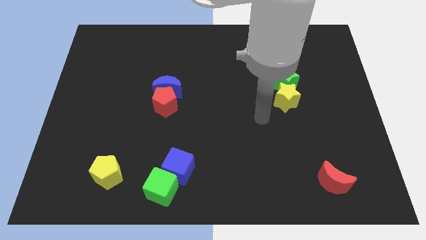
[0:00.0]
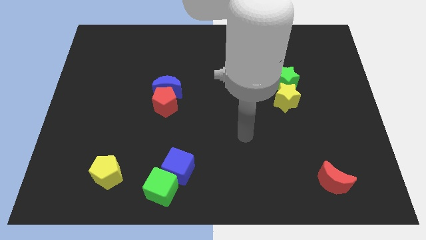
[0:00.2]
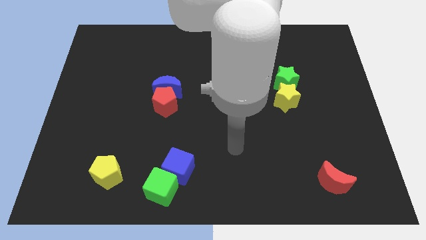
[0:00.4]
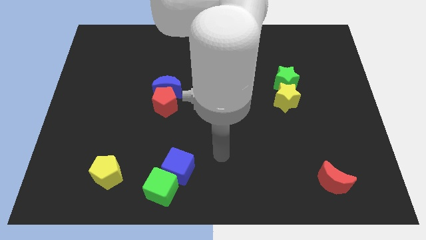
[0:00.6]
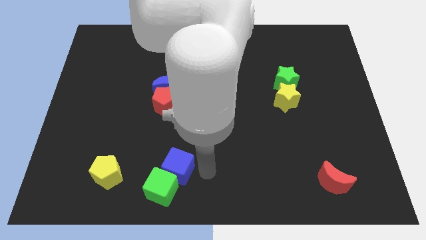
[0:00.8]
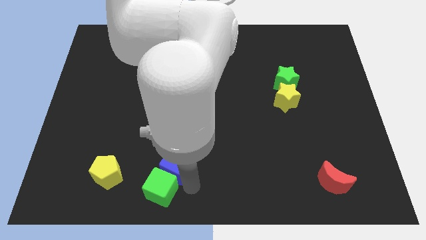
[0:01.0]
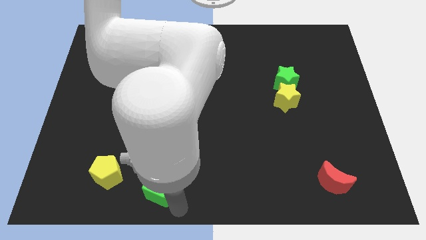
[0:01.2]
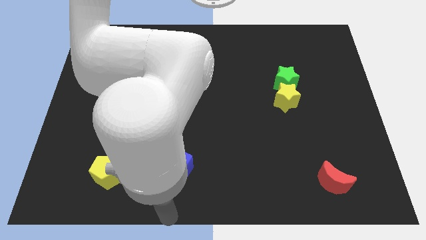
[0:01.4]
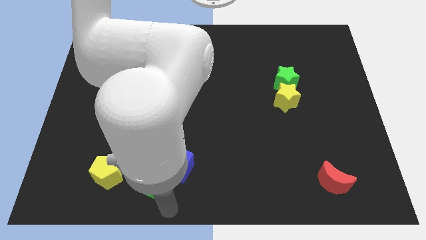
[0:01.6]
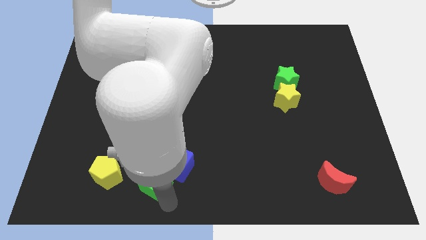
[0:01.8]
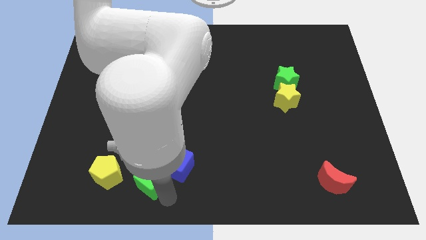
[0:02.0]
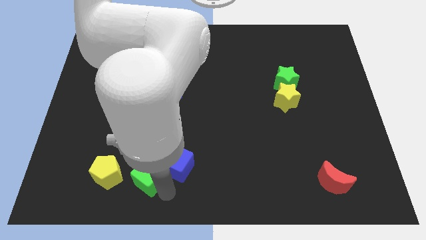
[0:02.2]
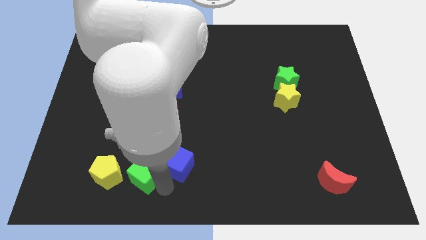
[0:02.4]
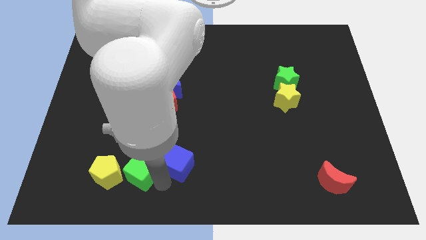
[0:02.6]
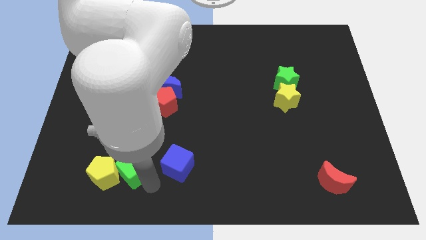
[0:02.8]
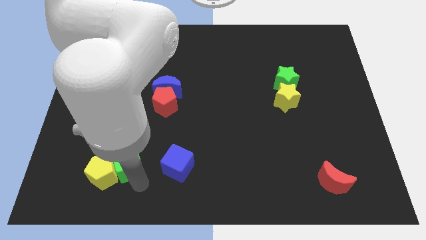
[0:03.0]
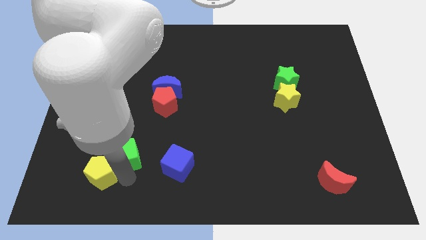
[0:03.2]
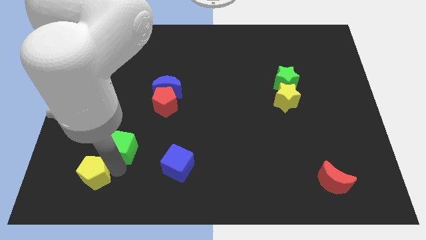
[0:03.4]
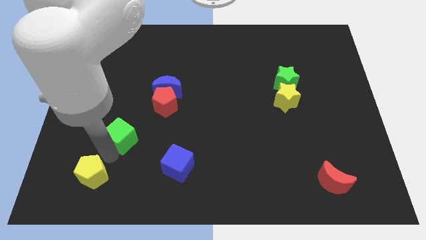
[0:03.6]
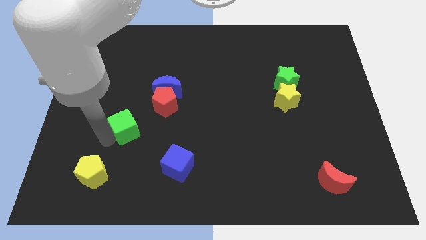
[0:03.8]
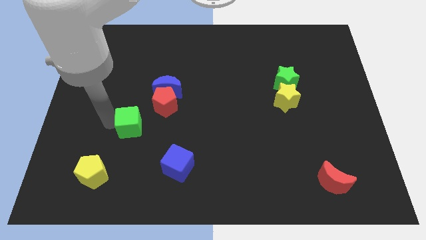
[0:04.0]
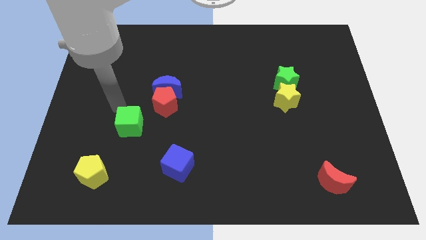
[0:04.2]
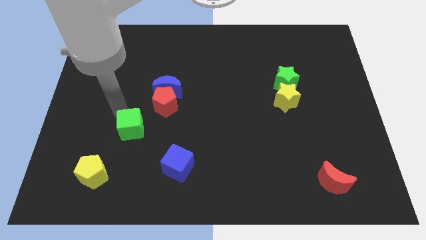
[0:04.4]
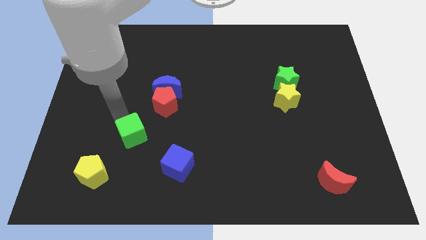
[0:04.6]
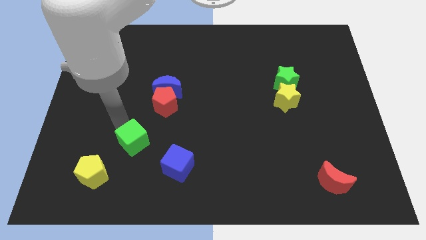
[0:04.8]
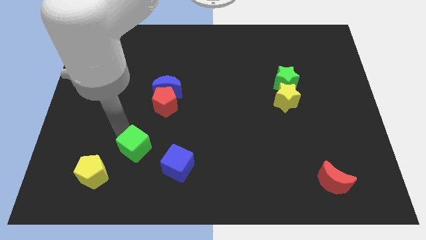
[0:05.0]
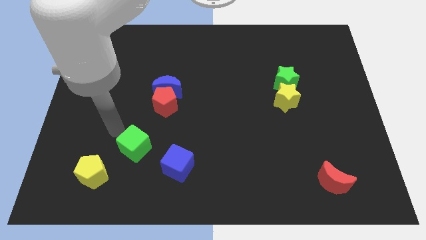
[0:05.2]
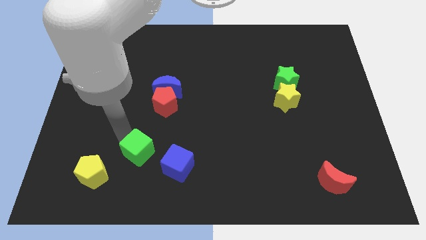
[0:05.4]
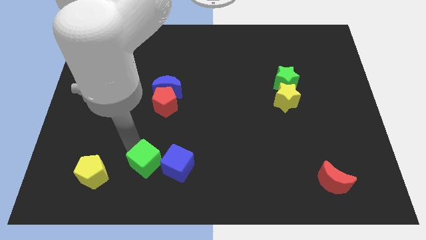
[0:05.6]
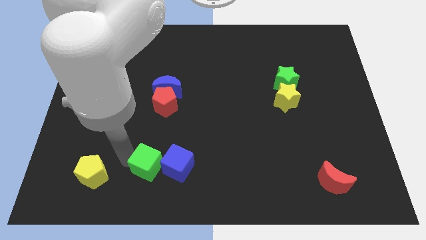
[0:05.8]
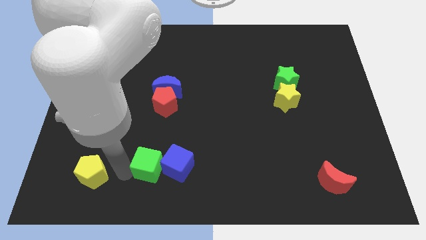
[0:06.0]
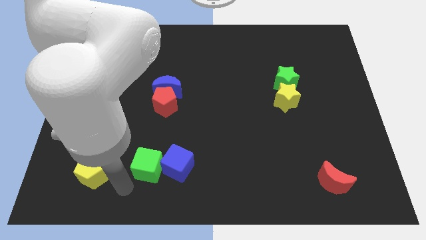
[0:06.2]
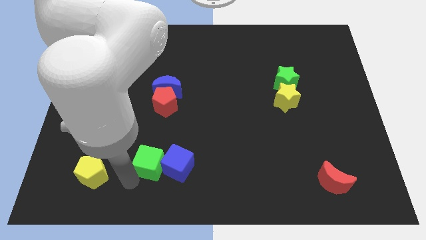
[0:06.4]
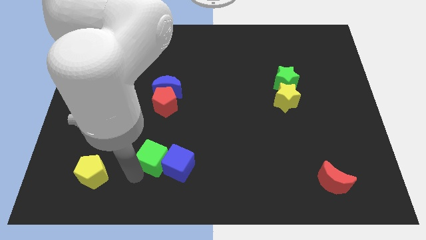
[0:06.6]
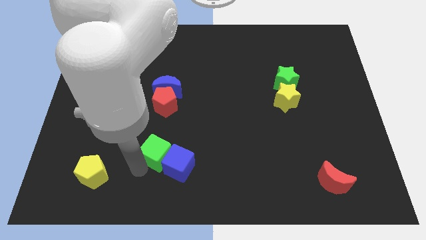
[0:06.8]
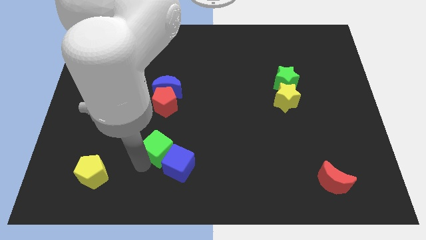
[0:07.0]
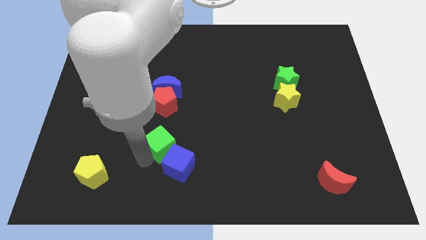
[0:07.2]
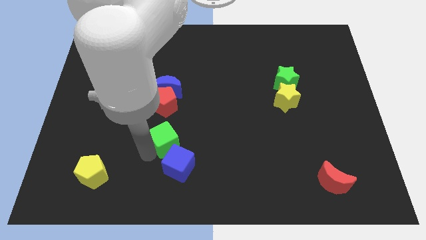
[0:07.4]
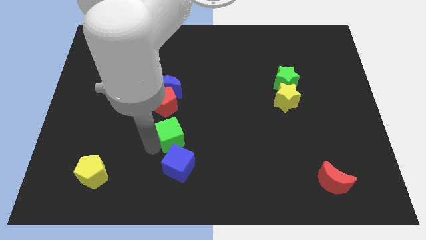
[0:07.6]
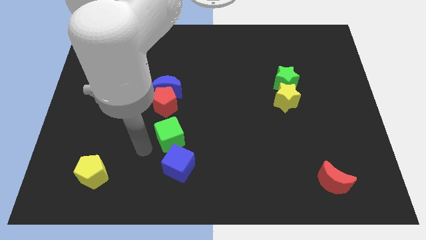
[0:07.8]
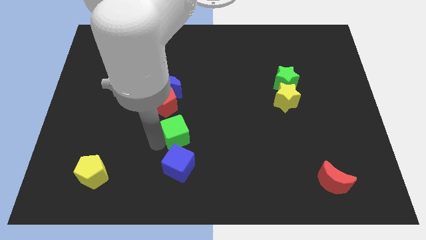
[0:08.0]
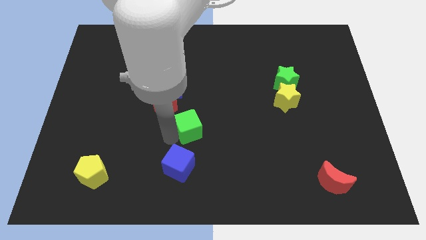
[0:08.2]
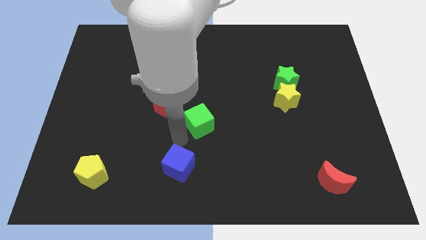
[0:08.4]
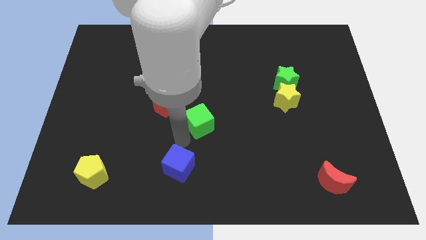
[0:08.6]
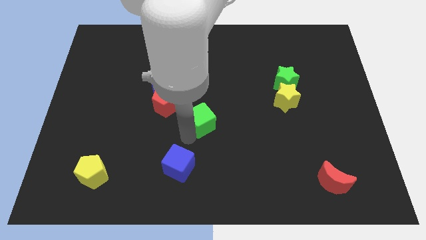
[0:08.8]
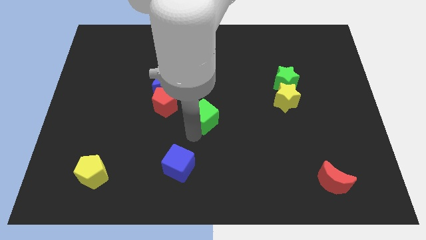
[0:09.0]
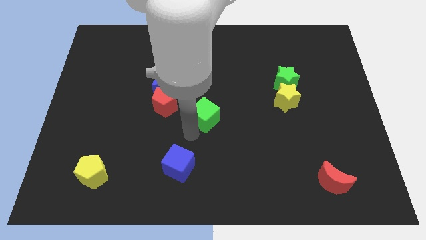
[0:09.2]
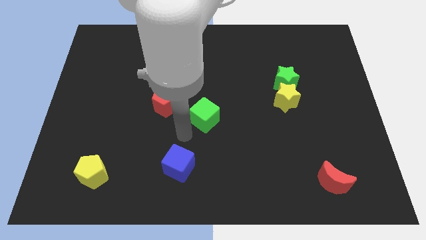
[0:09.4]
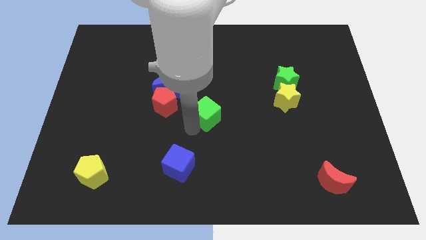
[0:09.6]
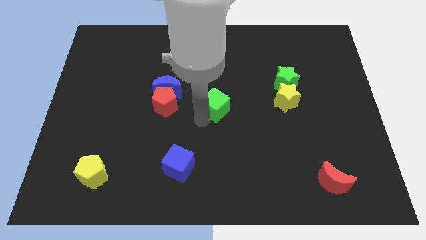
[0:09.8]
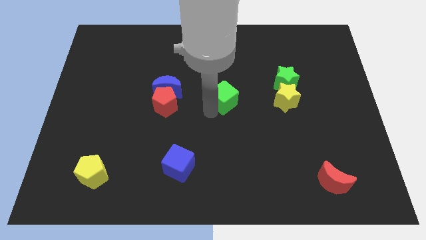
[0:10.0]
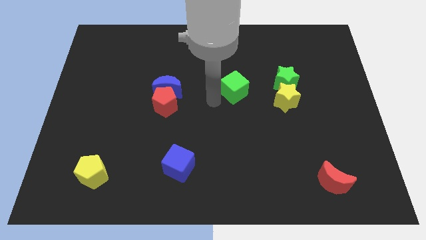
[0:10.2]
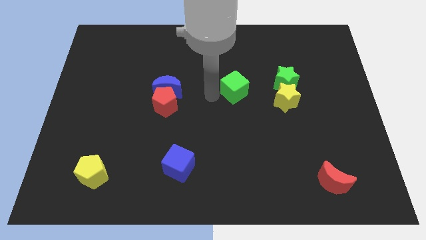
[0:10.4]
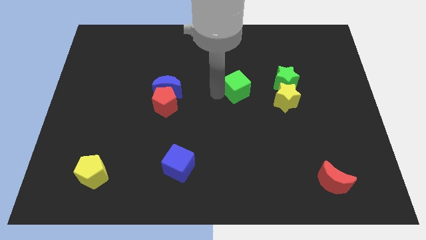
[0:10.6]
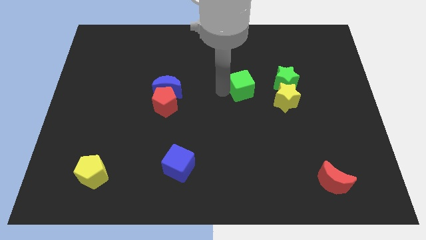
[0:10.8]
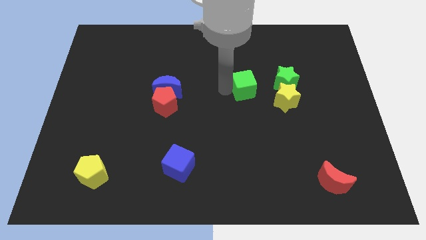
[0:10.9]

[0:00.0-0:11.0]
move the green cube to the top left of the yellow star

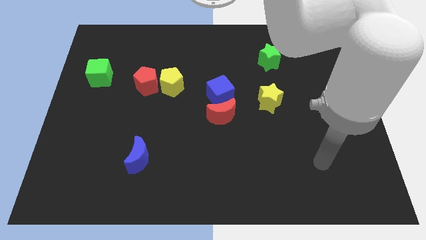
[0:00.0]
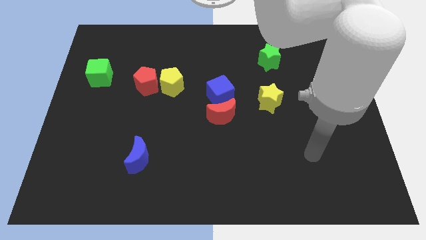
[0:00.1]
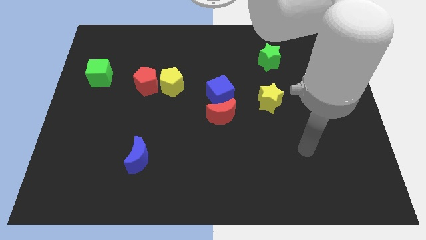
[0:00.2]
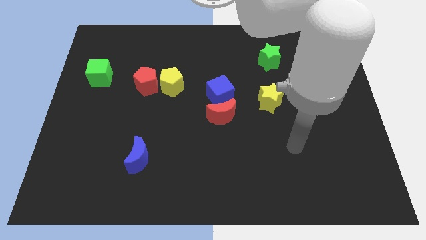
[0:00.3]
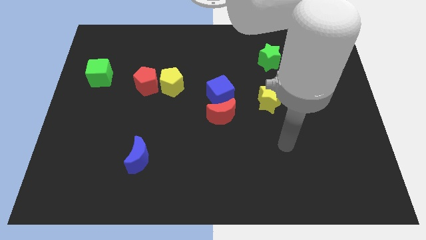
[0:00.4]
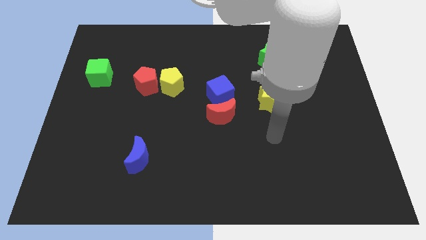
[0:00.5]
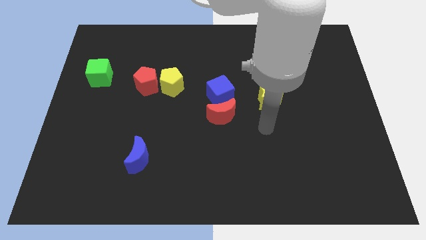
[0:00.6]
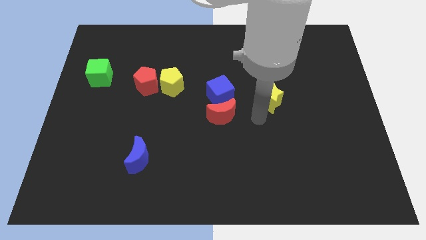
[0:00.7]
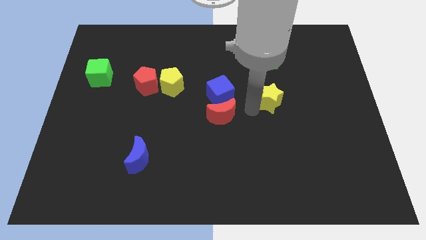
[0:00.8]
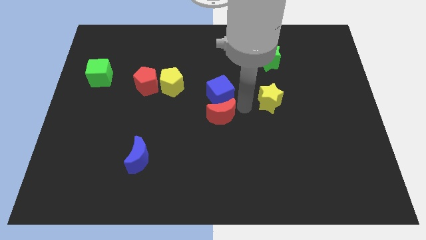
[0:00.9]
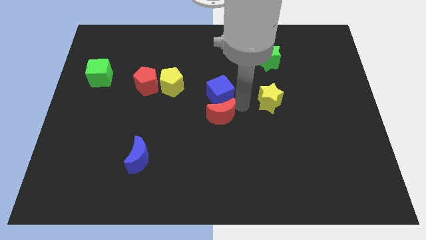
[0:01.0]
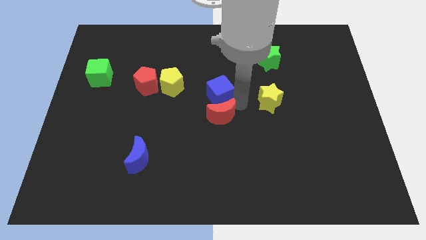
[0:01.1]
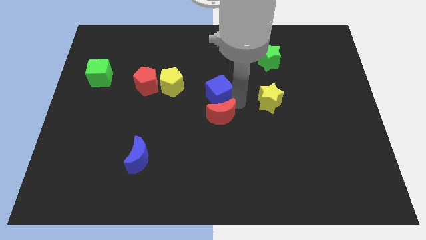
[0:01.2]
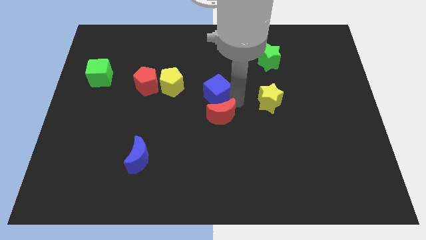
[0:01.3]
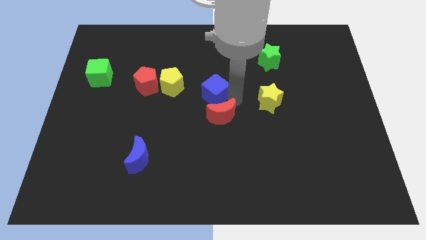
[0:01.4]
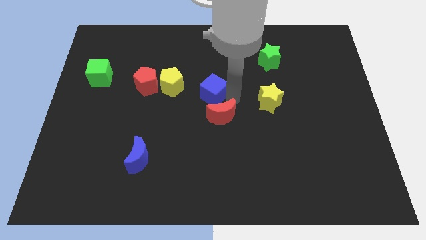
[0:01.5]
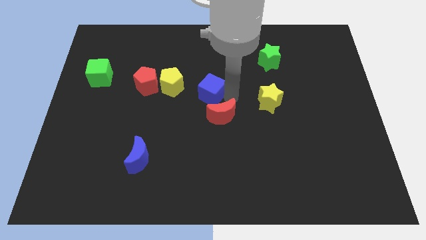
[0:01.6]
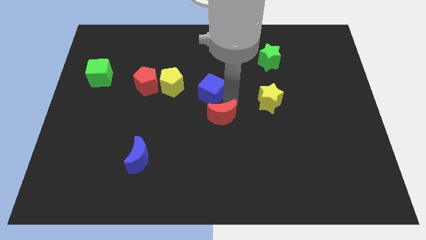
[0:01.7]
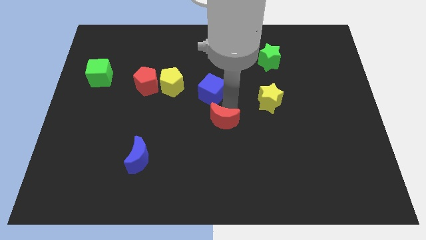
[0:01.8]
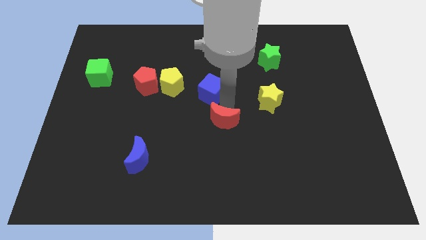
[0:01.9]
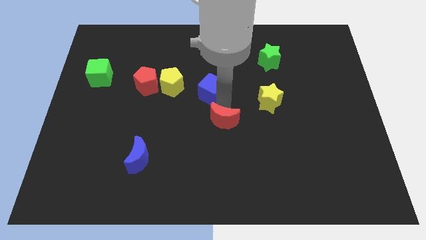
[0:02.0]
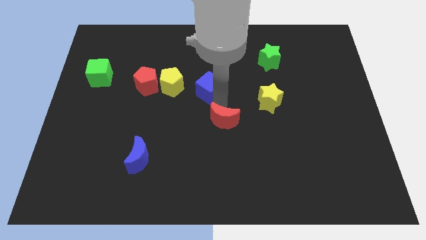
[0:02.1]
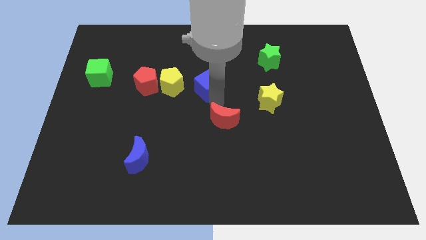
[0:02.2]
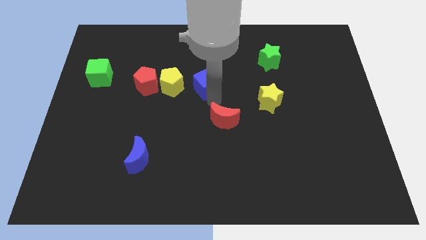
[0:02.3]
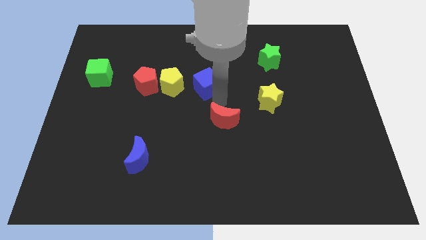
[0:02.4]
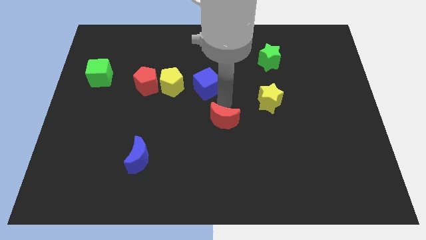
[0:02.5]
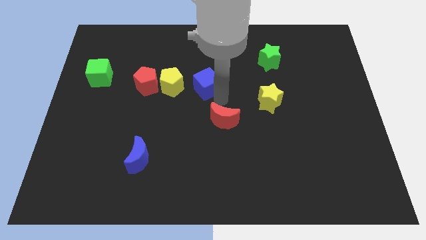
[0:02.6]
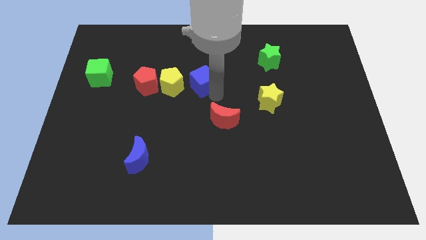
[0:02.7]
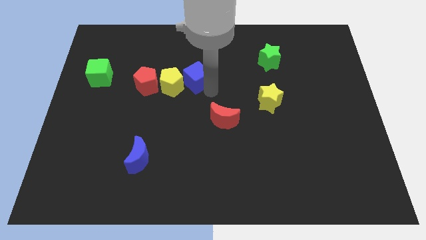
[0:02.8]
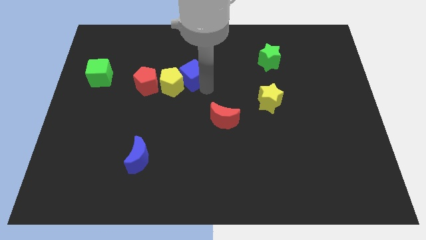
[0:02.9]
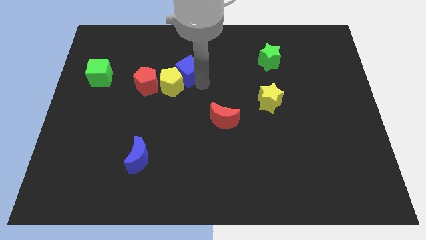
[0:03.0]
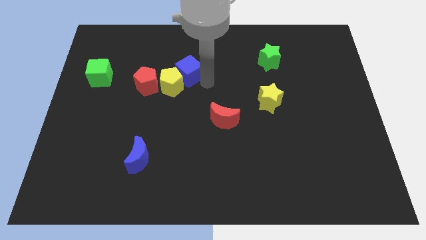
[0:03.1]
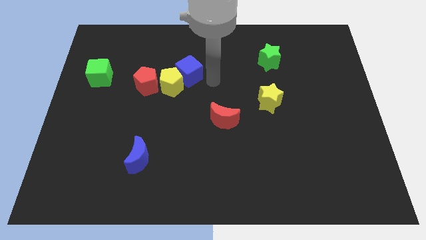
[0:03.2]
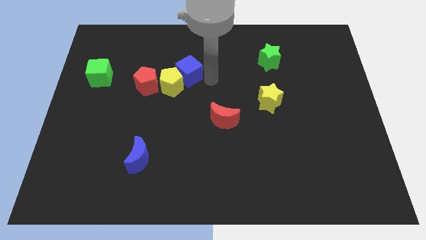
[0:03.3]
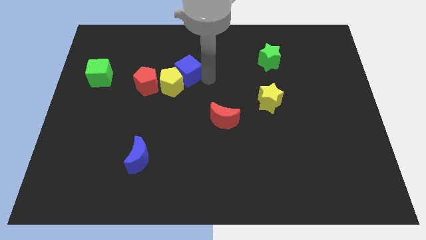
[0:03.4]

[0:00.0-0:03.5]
slide the blue cube to the top right side of the red pentagon
